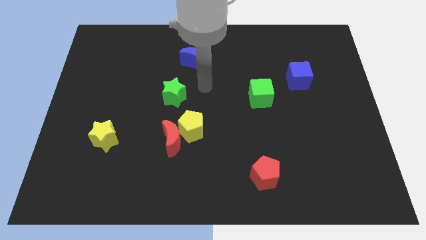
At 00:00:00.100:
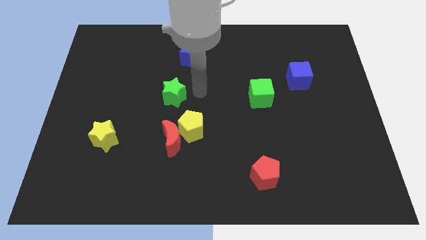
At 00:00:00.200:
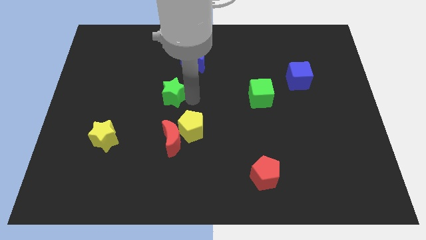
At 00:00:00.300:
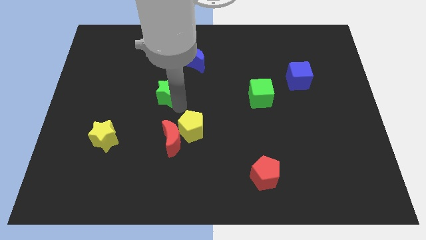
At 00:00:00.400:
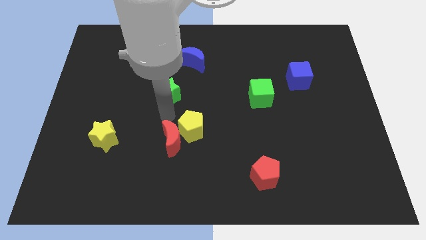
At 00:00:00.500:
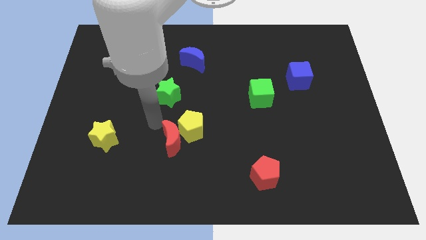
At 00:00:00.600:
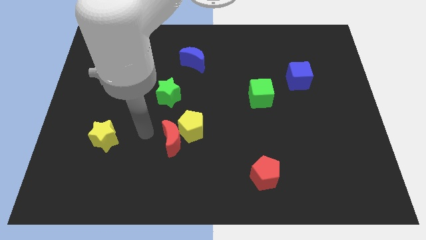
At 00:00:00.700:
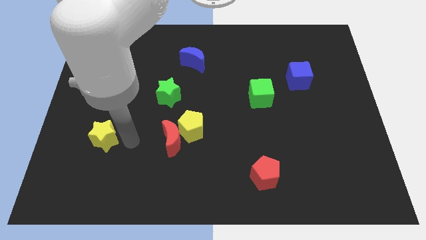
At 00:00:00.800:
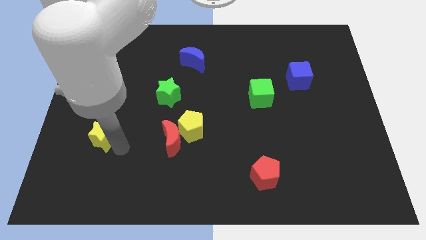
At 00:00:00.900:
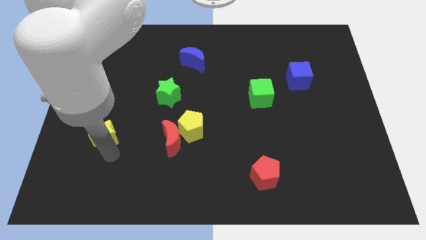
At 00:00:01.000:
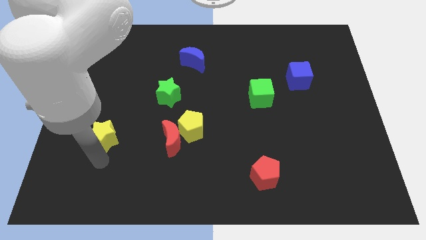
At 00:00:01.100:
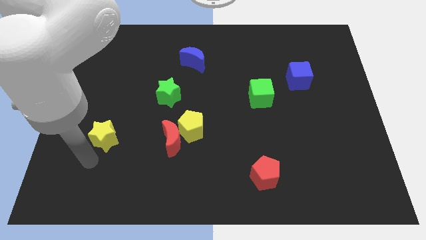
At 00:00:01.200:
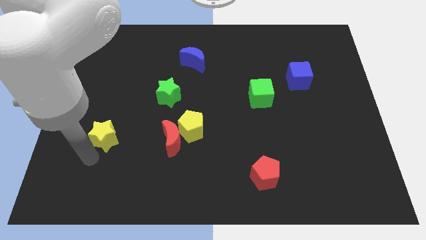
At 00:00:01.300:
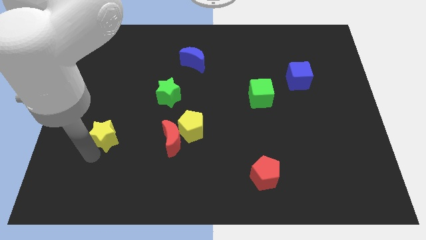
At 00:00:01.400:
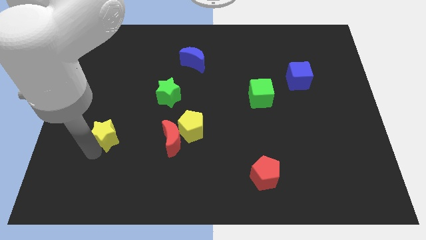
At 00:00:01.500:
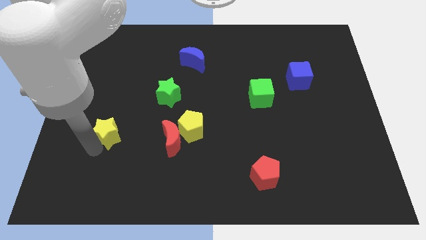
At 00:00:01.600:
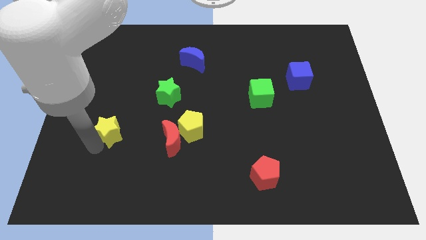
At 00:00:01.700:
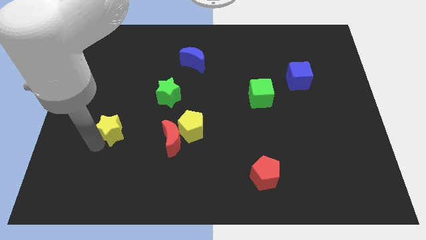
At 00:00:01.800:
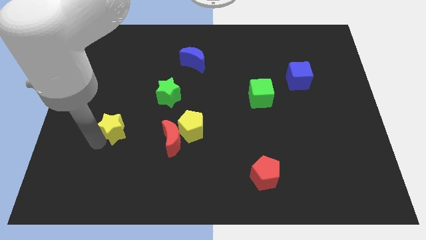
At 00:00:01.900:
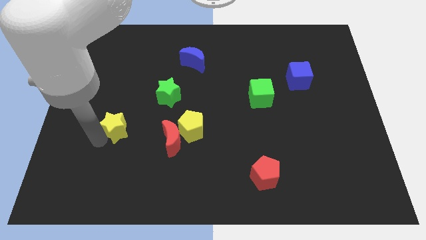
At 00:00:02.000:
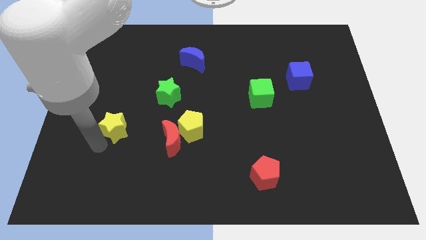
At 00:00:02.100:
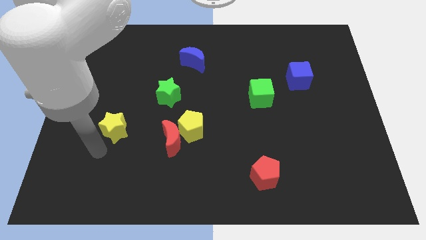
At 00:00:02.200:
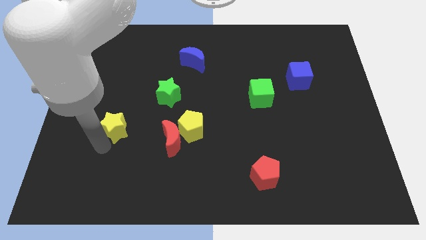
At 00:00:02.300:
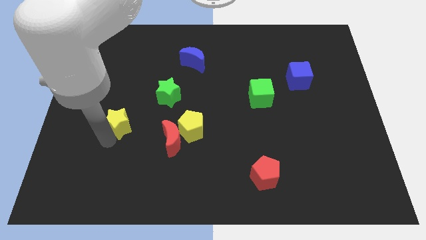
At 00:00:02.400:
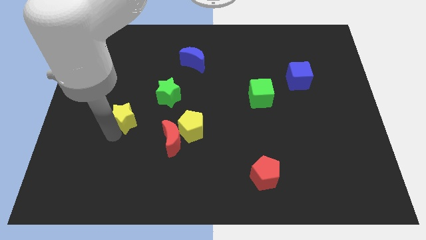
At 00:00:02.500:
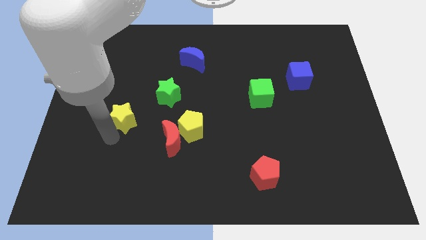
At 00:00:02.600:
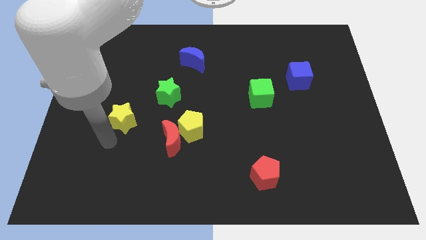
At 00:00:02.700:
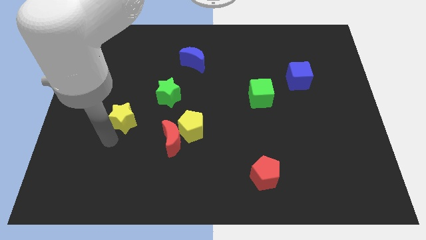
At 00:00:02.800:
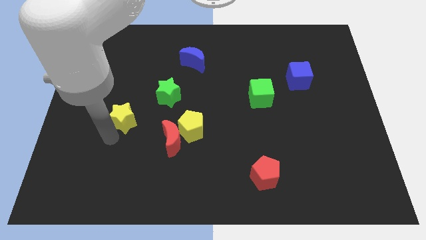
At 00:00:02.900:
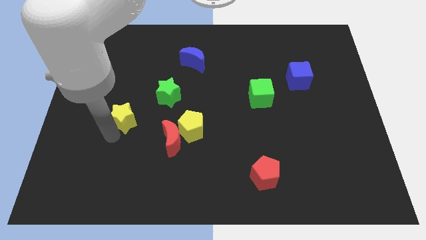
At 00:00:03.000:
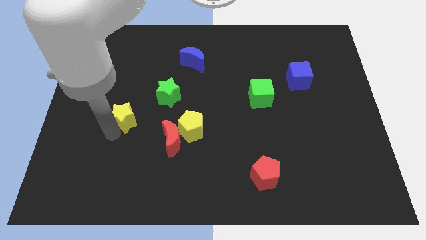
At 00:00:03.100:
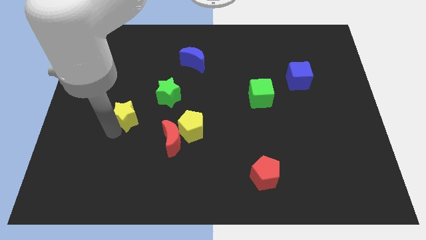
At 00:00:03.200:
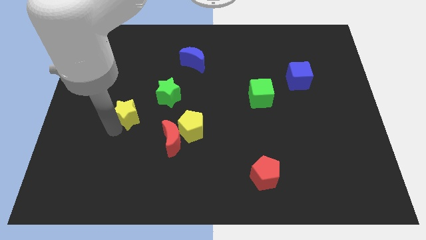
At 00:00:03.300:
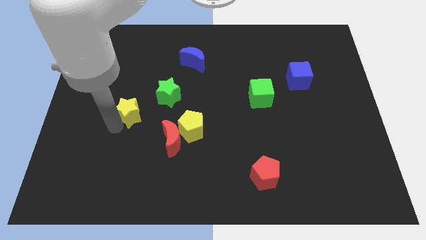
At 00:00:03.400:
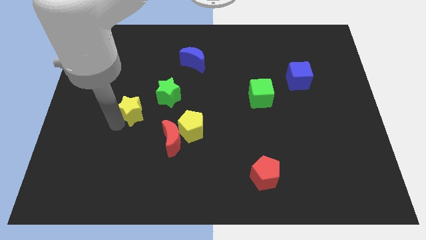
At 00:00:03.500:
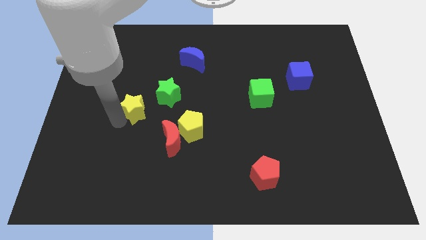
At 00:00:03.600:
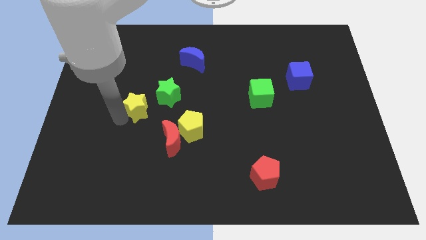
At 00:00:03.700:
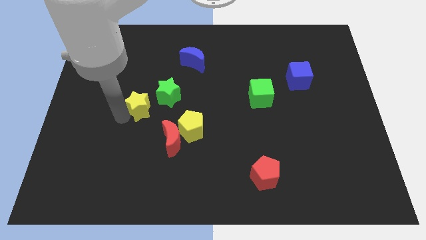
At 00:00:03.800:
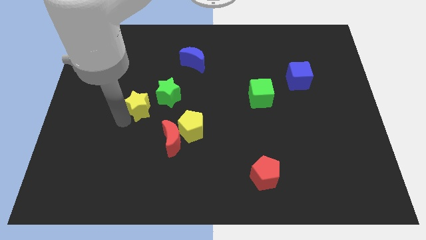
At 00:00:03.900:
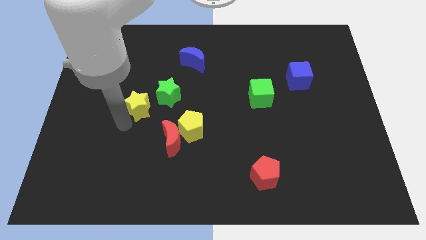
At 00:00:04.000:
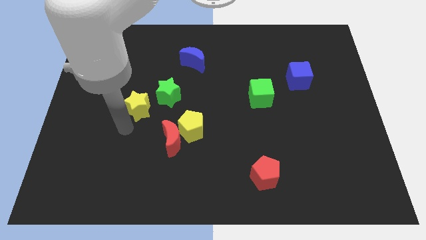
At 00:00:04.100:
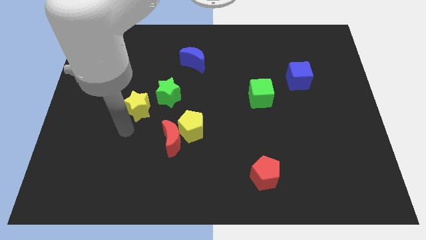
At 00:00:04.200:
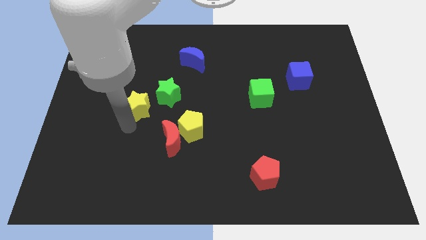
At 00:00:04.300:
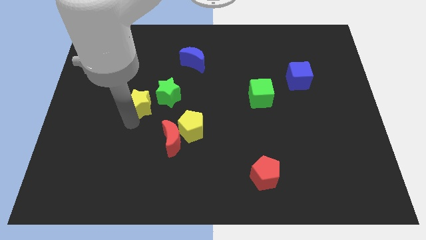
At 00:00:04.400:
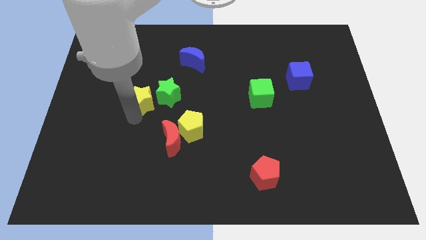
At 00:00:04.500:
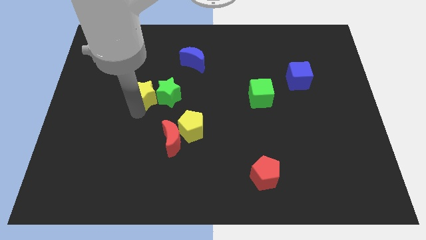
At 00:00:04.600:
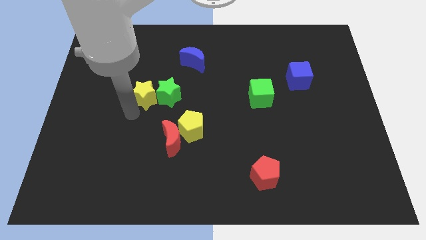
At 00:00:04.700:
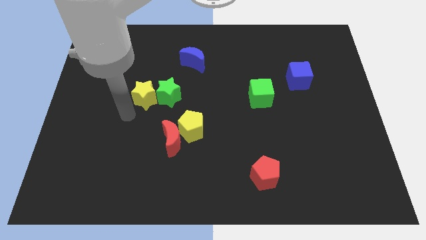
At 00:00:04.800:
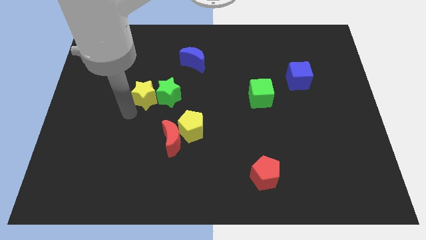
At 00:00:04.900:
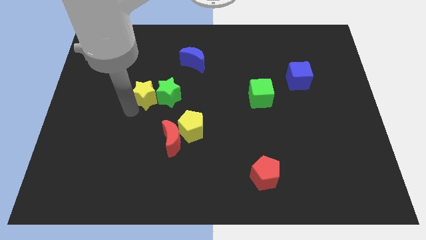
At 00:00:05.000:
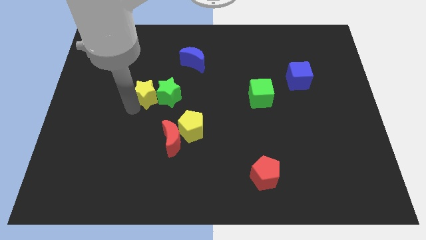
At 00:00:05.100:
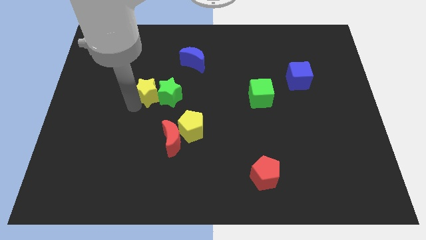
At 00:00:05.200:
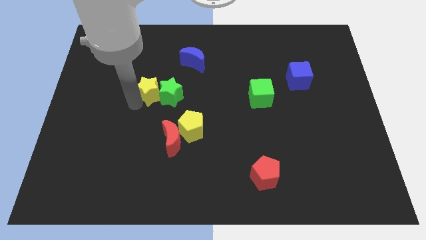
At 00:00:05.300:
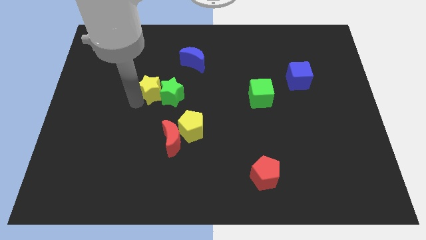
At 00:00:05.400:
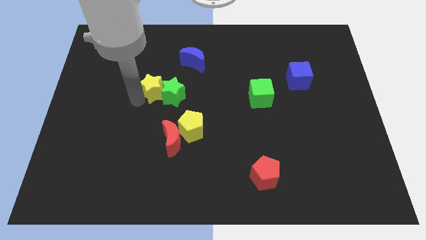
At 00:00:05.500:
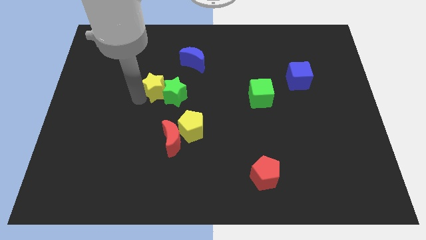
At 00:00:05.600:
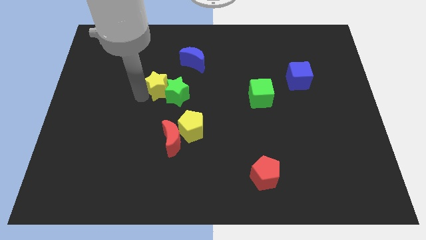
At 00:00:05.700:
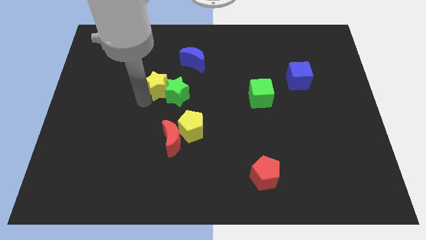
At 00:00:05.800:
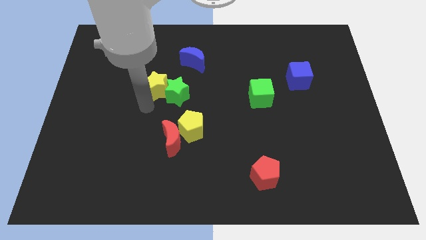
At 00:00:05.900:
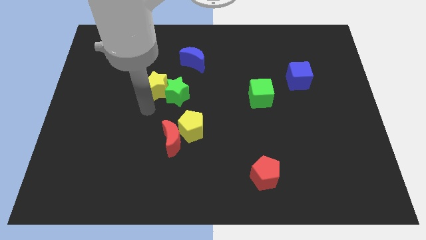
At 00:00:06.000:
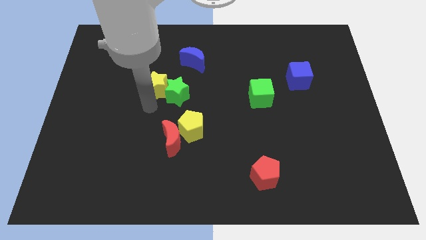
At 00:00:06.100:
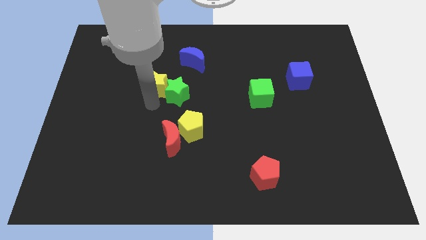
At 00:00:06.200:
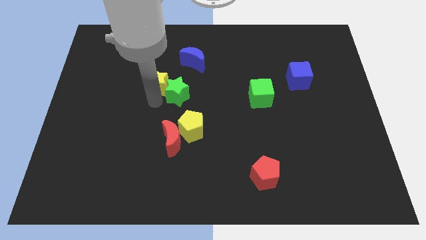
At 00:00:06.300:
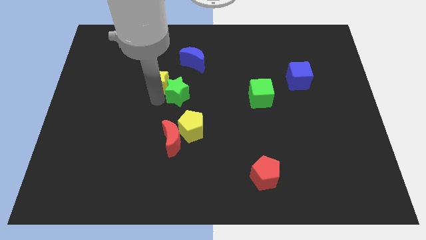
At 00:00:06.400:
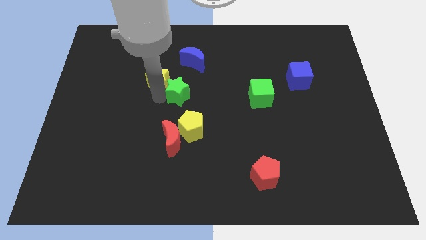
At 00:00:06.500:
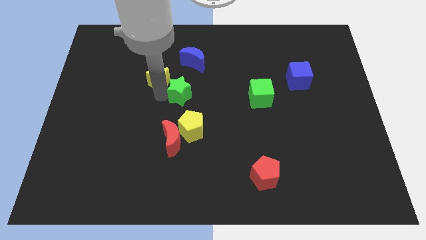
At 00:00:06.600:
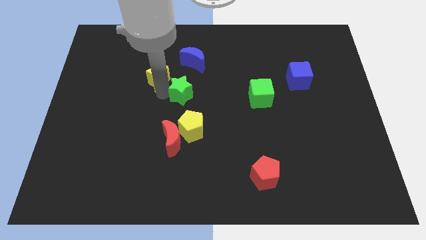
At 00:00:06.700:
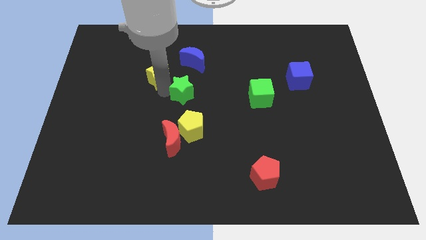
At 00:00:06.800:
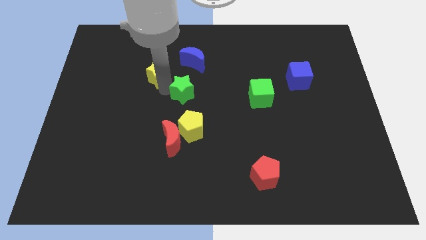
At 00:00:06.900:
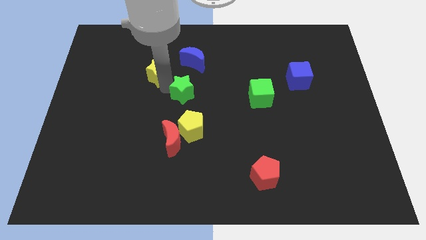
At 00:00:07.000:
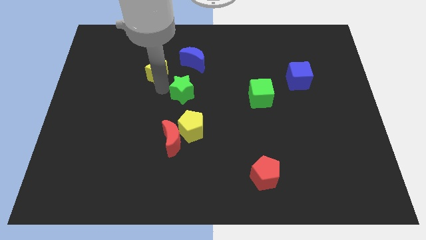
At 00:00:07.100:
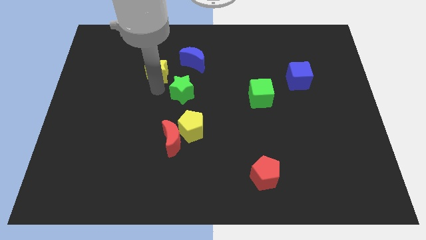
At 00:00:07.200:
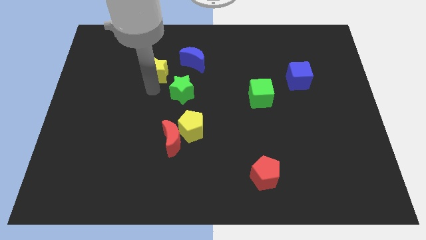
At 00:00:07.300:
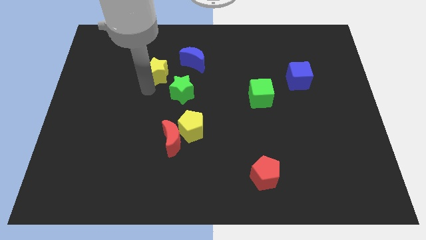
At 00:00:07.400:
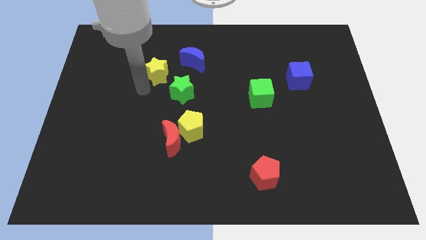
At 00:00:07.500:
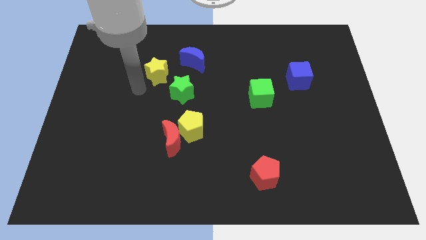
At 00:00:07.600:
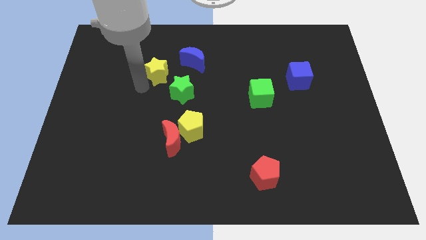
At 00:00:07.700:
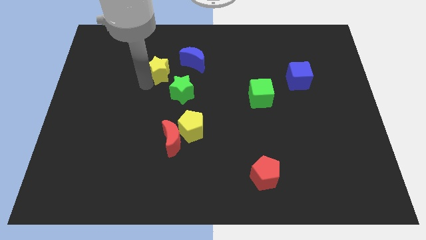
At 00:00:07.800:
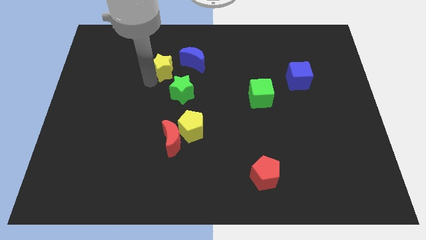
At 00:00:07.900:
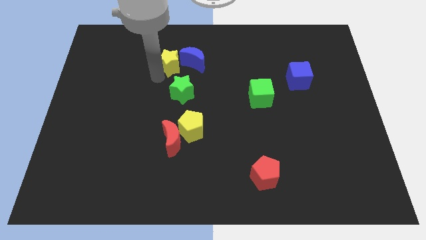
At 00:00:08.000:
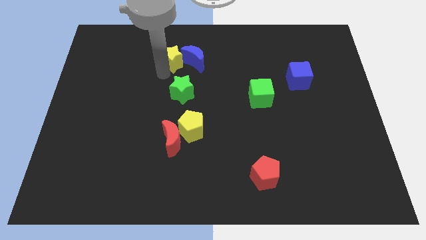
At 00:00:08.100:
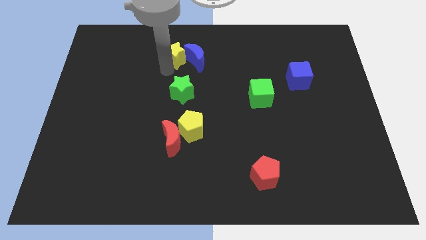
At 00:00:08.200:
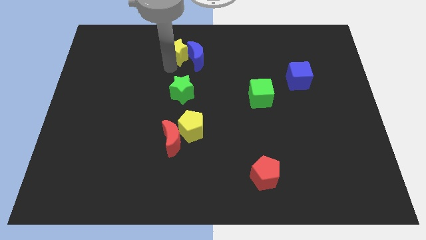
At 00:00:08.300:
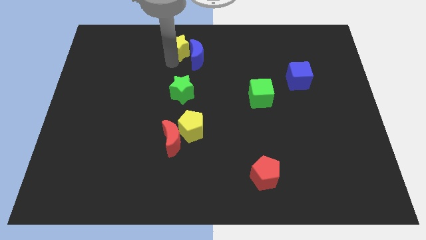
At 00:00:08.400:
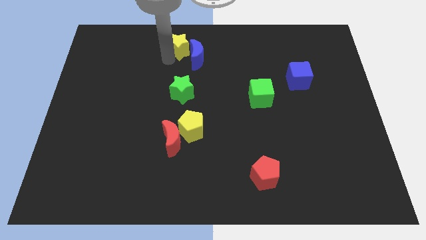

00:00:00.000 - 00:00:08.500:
put the yellow star to the top side
